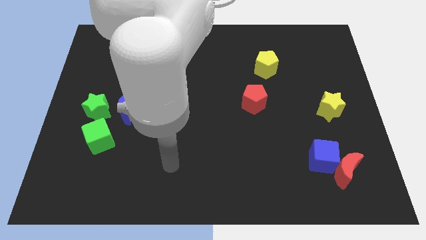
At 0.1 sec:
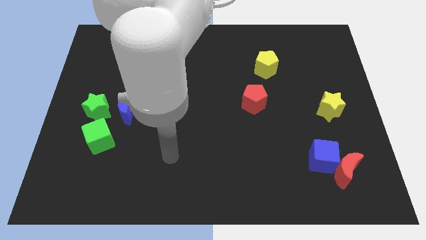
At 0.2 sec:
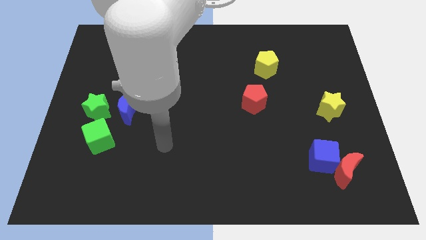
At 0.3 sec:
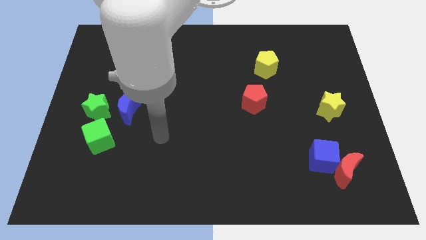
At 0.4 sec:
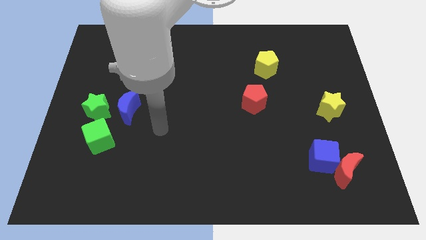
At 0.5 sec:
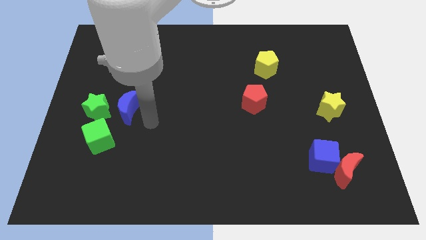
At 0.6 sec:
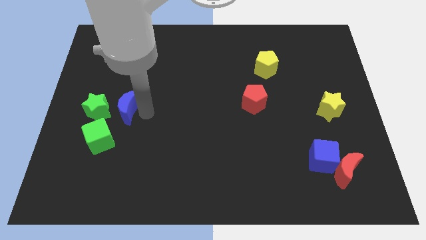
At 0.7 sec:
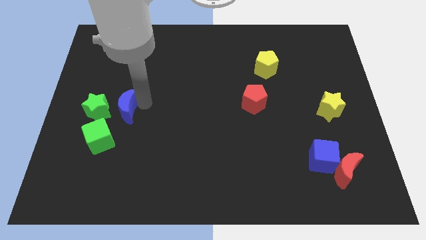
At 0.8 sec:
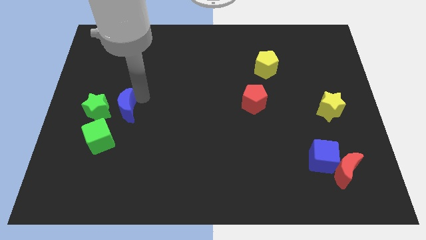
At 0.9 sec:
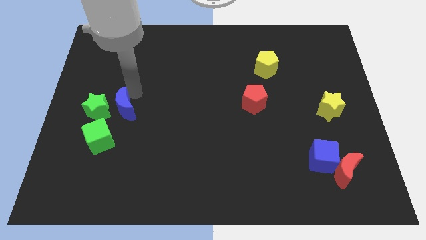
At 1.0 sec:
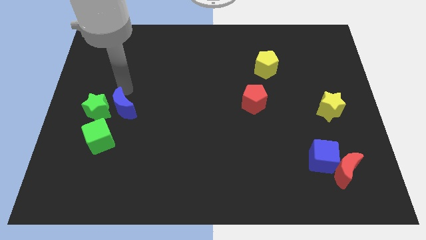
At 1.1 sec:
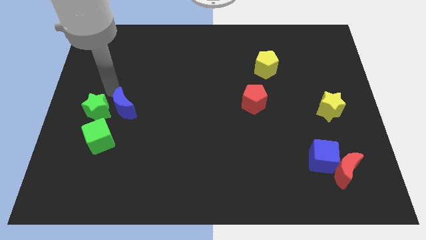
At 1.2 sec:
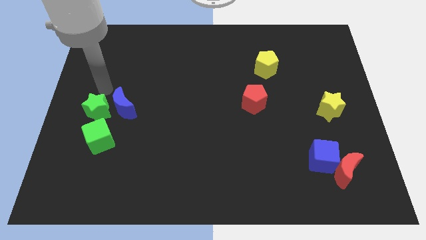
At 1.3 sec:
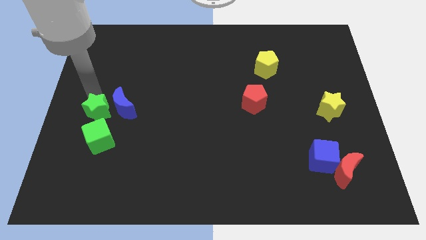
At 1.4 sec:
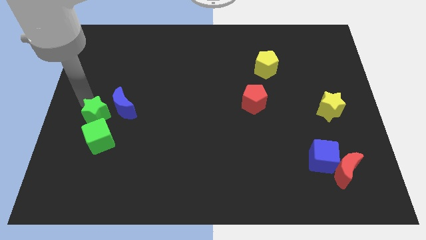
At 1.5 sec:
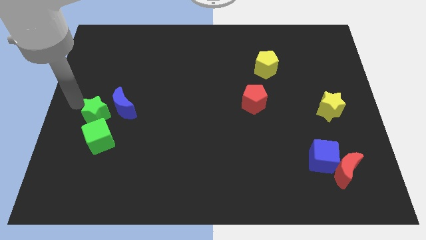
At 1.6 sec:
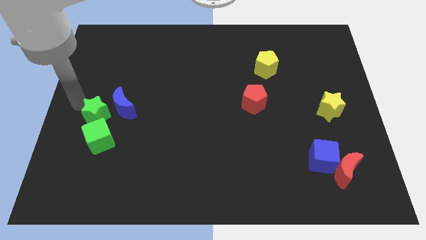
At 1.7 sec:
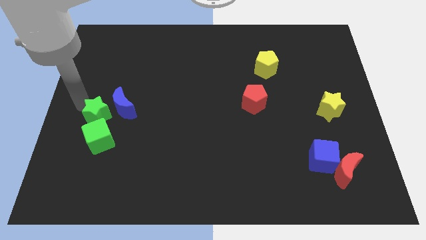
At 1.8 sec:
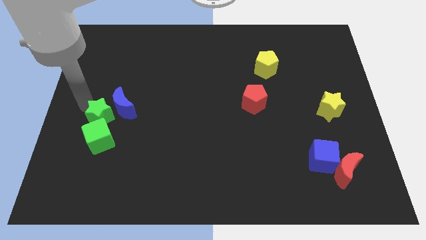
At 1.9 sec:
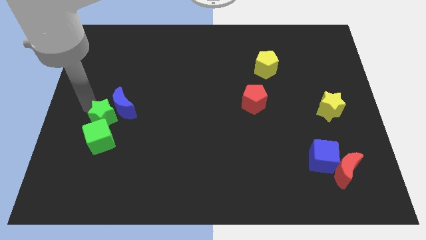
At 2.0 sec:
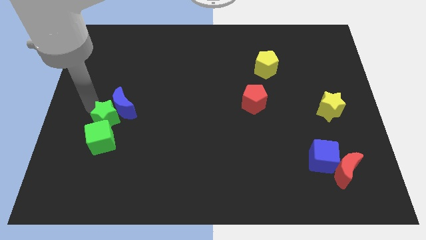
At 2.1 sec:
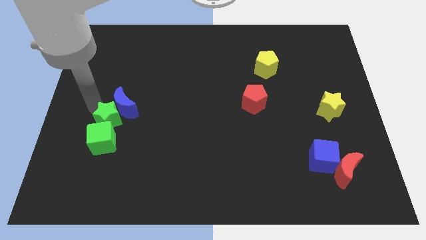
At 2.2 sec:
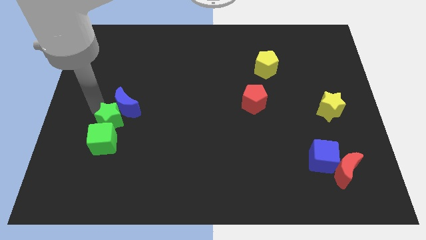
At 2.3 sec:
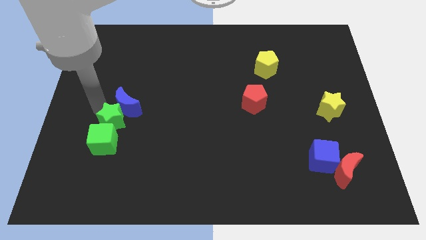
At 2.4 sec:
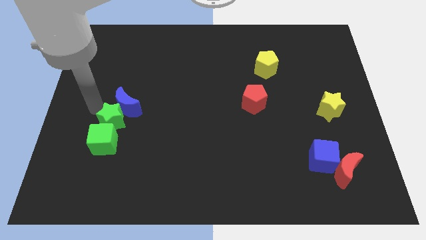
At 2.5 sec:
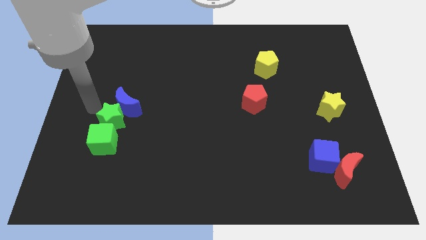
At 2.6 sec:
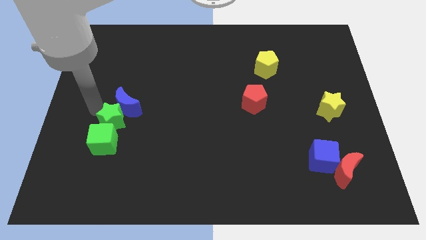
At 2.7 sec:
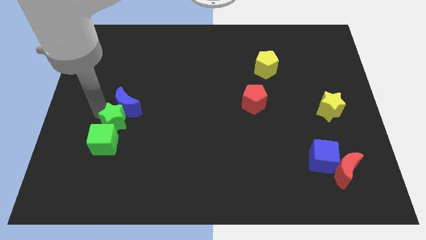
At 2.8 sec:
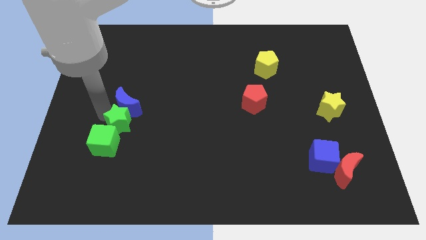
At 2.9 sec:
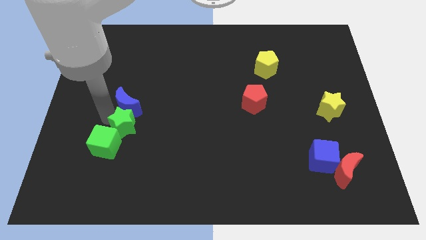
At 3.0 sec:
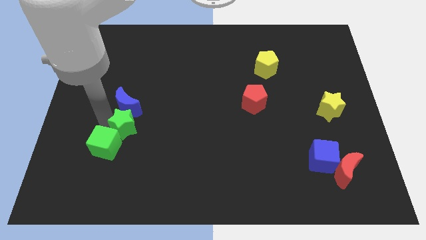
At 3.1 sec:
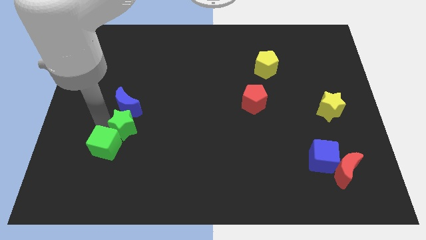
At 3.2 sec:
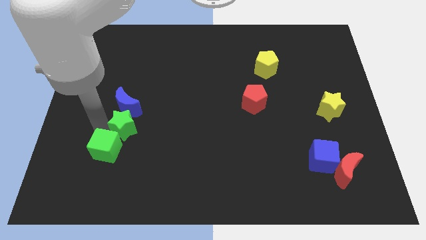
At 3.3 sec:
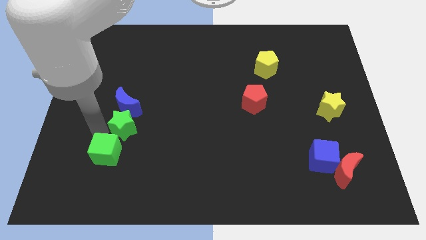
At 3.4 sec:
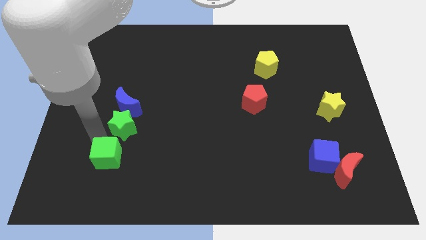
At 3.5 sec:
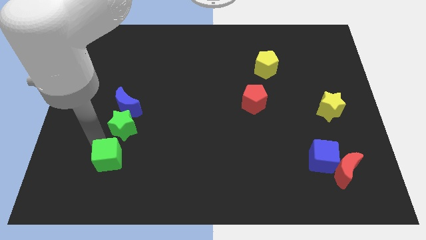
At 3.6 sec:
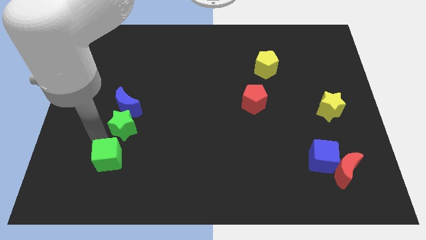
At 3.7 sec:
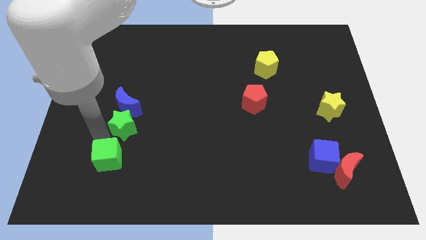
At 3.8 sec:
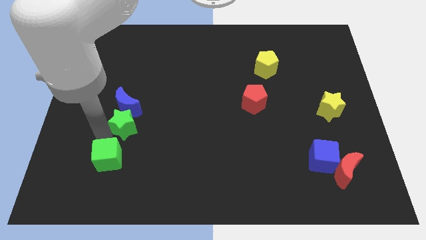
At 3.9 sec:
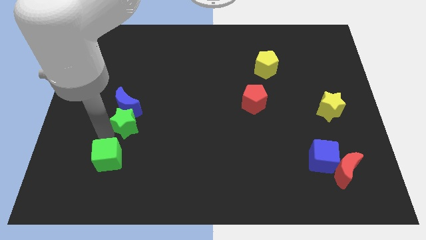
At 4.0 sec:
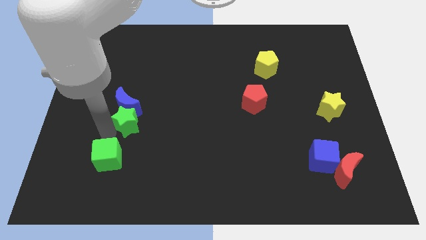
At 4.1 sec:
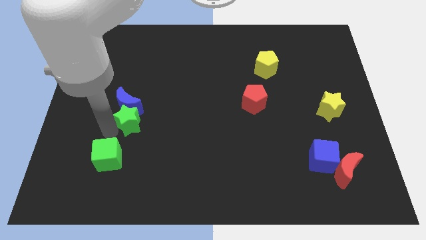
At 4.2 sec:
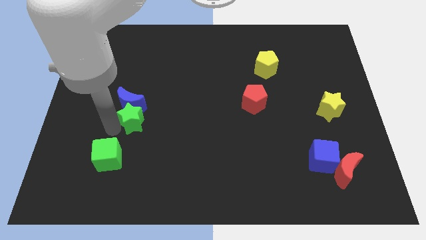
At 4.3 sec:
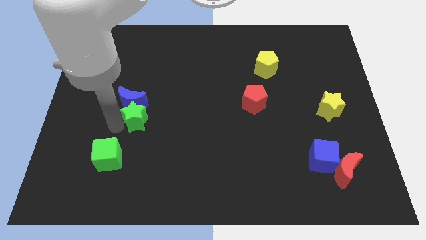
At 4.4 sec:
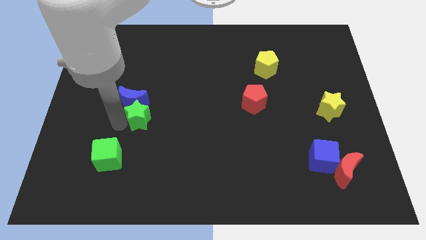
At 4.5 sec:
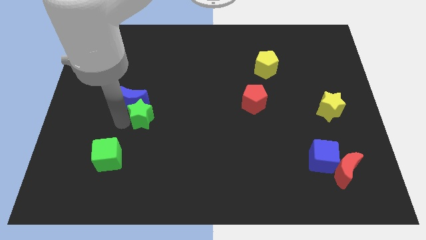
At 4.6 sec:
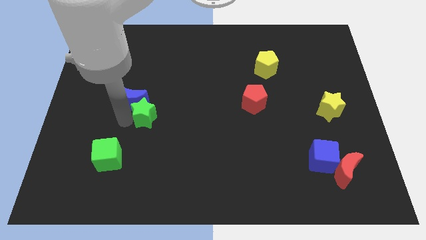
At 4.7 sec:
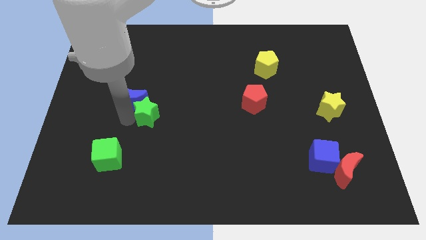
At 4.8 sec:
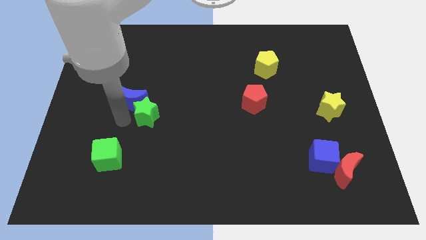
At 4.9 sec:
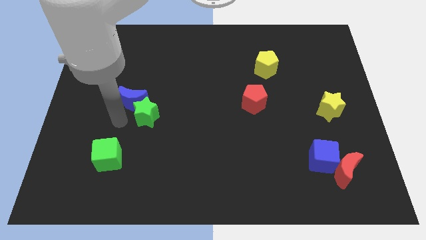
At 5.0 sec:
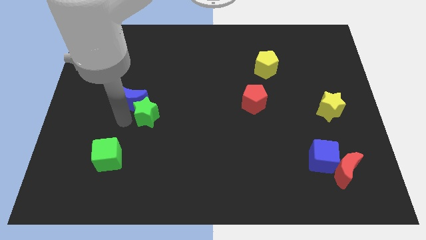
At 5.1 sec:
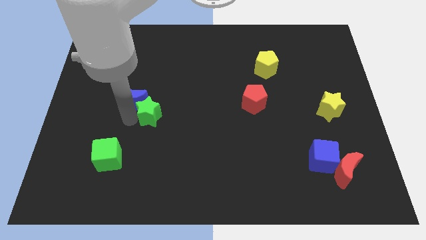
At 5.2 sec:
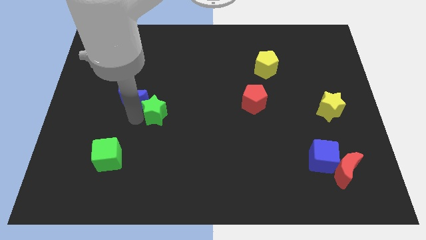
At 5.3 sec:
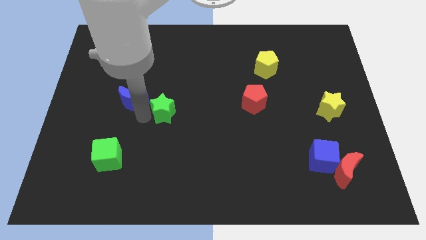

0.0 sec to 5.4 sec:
slide the green star to the middle of the board

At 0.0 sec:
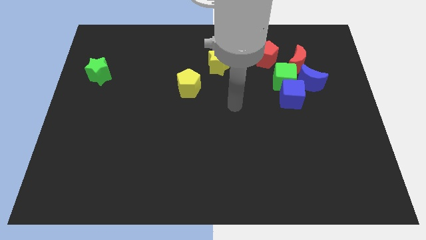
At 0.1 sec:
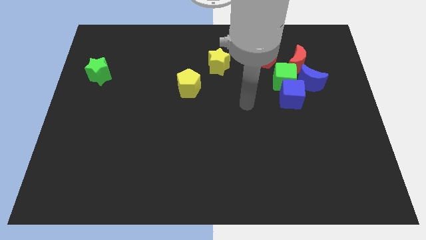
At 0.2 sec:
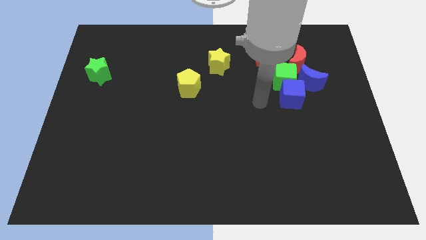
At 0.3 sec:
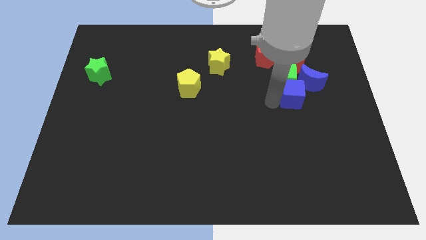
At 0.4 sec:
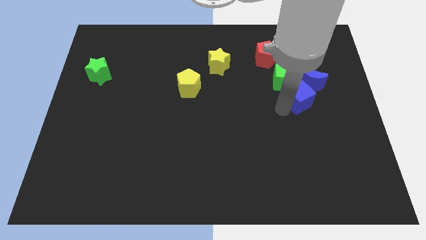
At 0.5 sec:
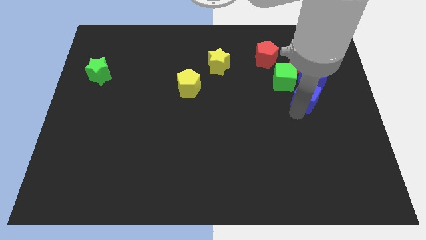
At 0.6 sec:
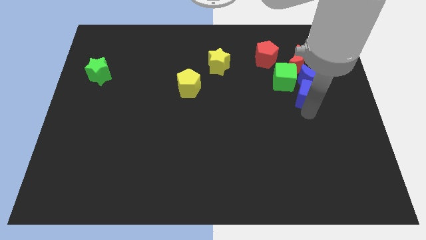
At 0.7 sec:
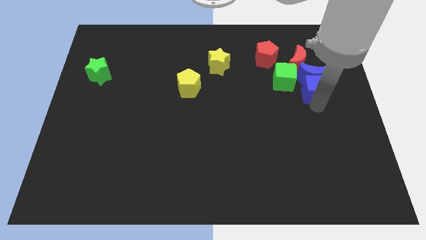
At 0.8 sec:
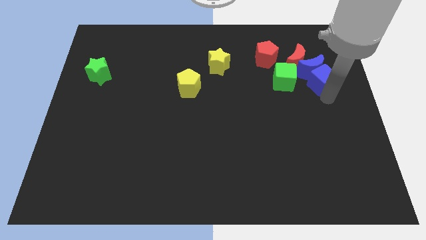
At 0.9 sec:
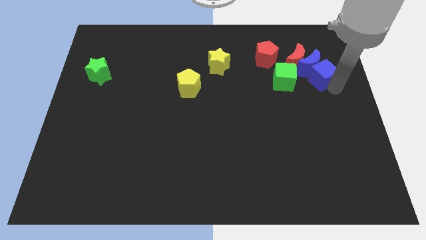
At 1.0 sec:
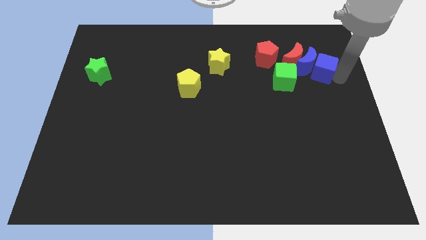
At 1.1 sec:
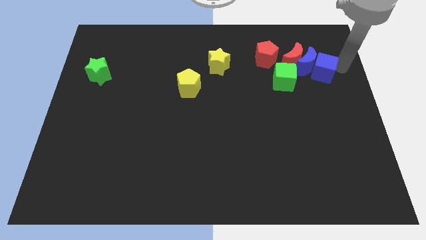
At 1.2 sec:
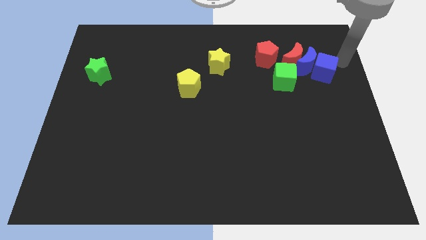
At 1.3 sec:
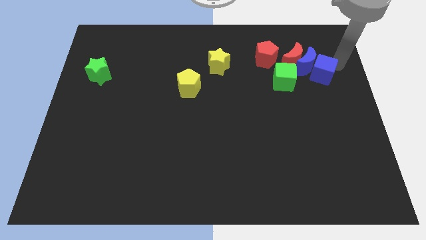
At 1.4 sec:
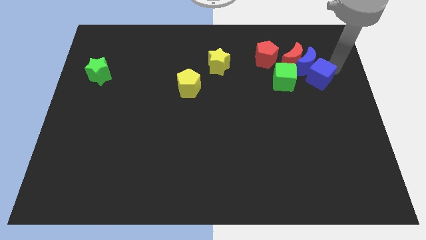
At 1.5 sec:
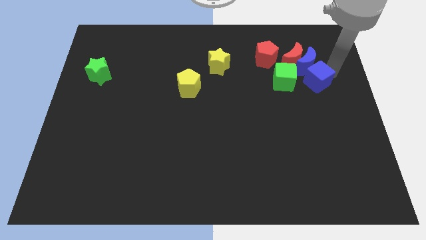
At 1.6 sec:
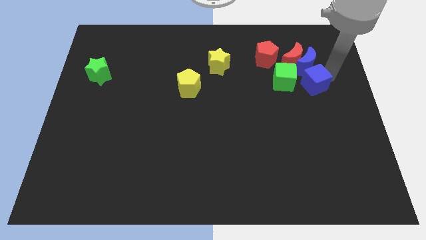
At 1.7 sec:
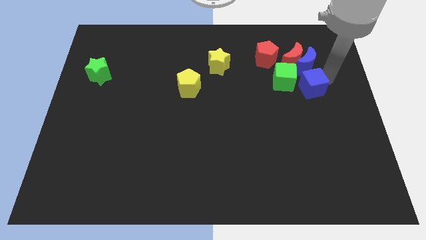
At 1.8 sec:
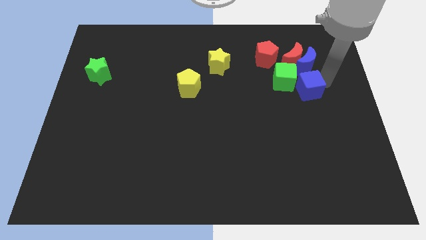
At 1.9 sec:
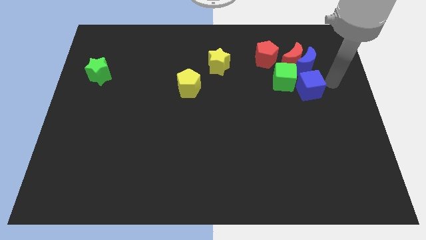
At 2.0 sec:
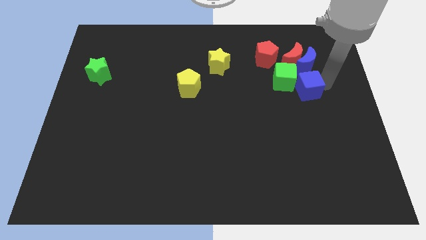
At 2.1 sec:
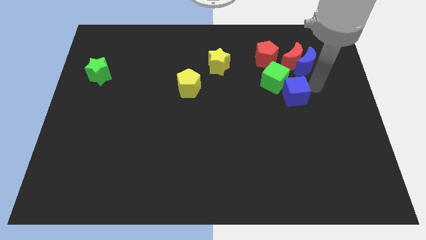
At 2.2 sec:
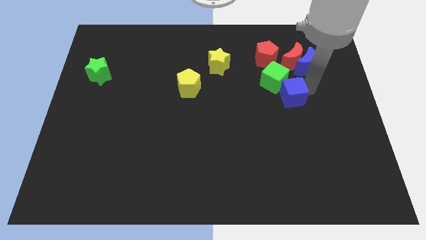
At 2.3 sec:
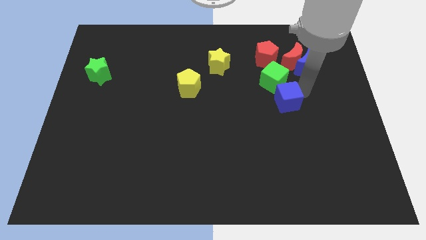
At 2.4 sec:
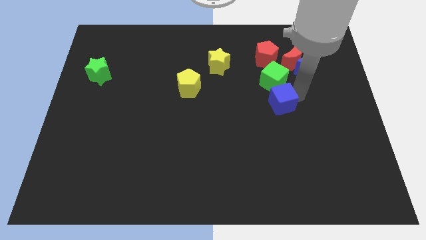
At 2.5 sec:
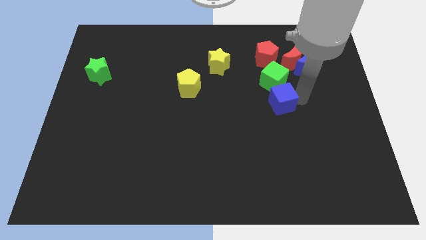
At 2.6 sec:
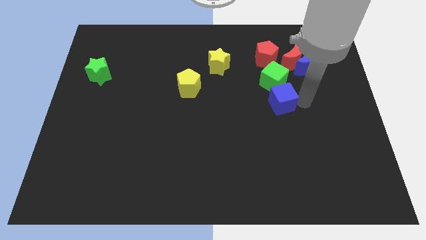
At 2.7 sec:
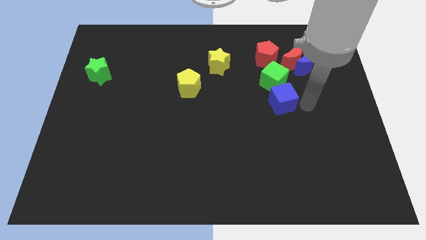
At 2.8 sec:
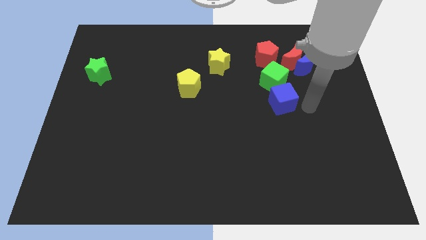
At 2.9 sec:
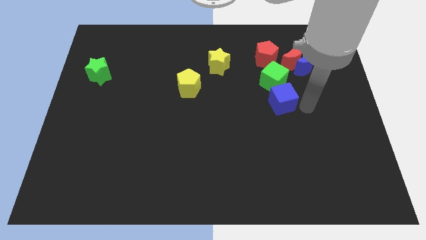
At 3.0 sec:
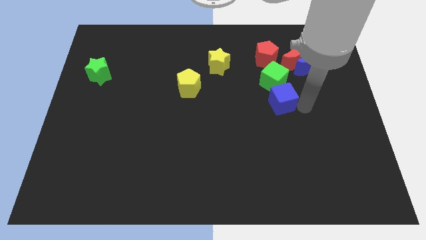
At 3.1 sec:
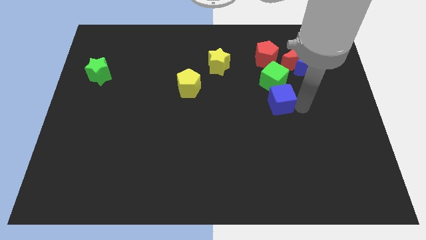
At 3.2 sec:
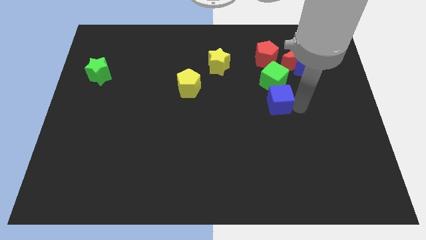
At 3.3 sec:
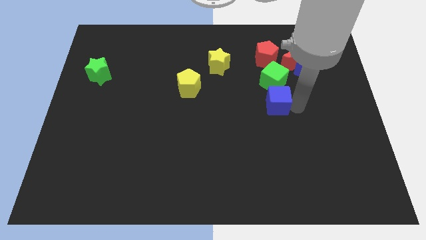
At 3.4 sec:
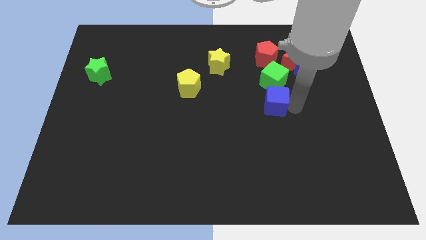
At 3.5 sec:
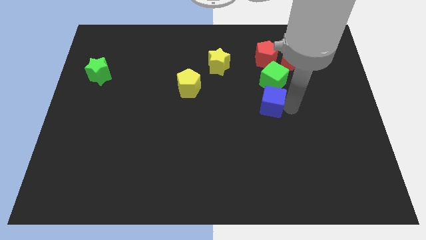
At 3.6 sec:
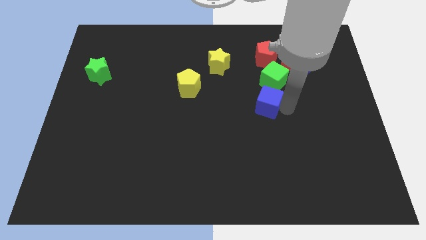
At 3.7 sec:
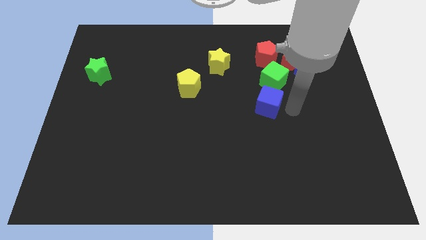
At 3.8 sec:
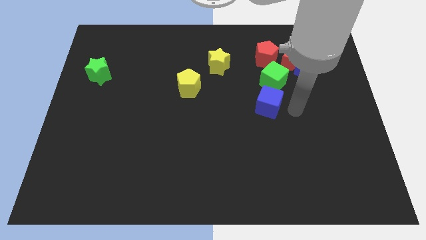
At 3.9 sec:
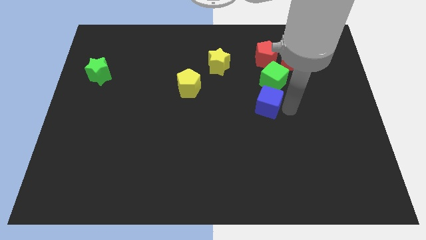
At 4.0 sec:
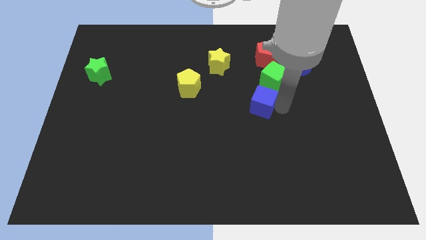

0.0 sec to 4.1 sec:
move the blue cube to the middle of the board
